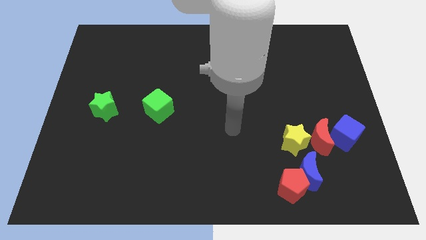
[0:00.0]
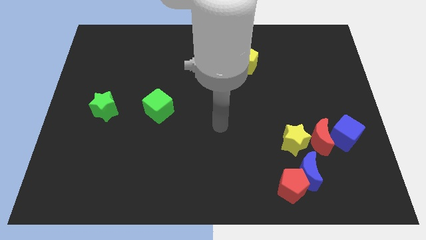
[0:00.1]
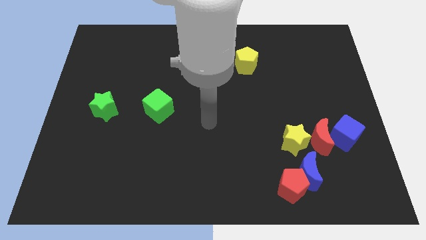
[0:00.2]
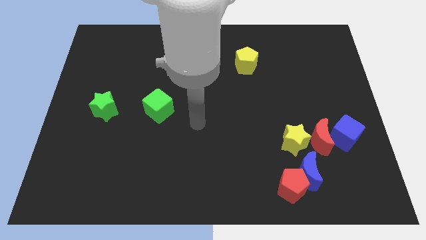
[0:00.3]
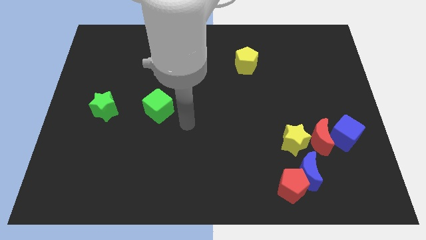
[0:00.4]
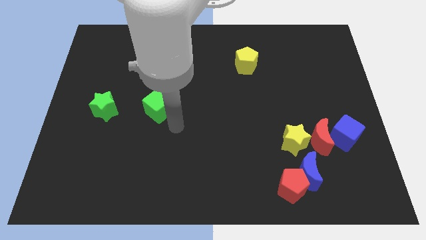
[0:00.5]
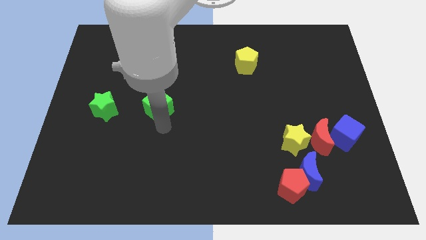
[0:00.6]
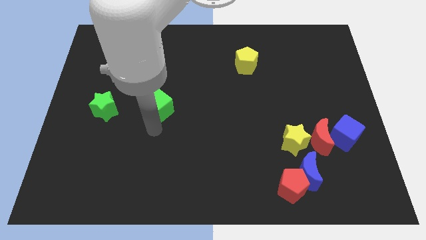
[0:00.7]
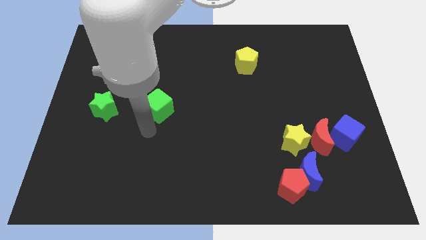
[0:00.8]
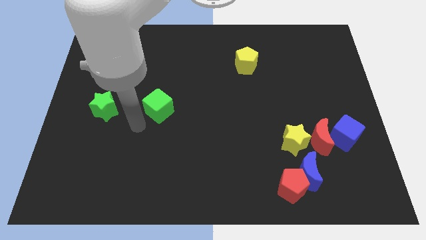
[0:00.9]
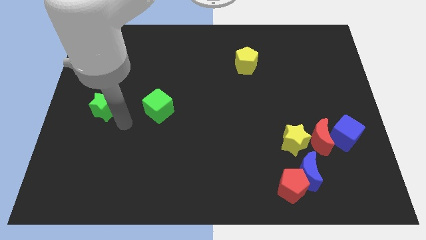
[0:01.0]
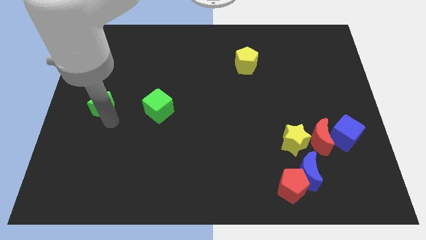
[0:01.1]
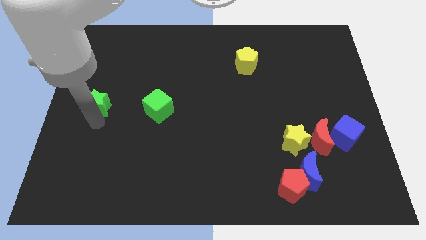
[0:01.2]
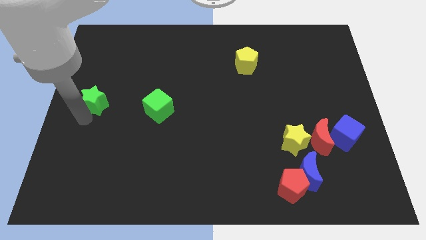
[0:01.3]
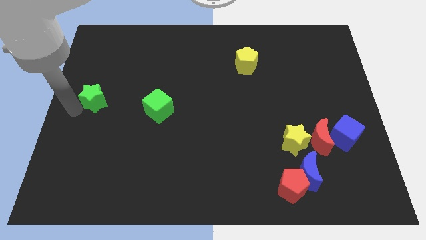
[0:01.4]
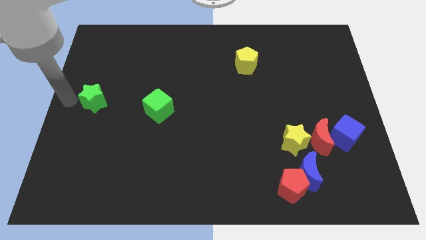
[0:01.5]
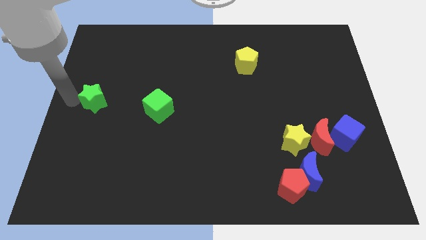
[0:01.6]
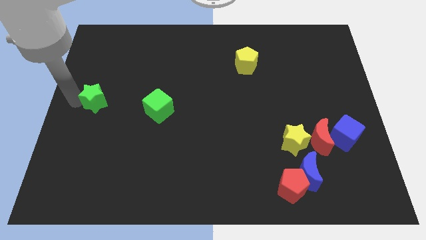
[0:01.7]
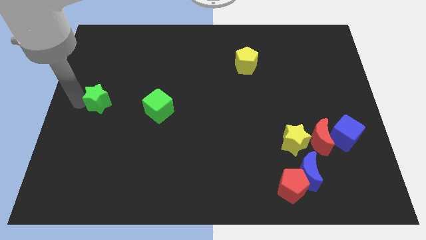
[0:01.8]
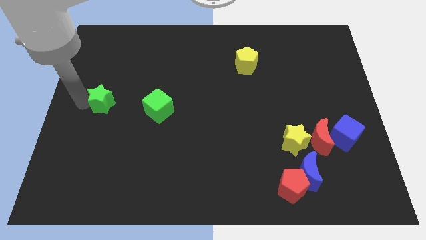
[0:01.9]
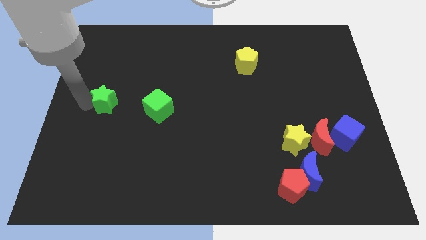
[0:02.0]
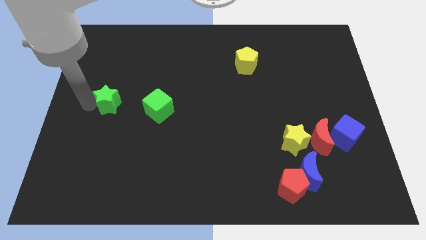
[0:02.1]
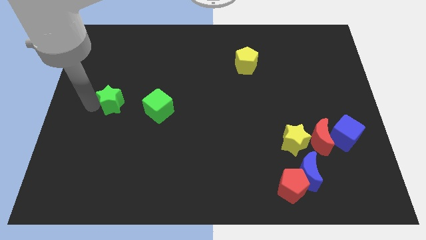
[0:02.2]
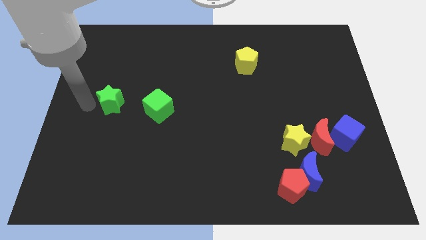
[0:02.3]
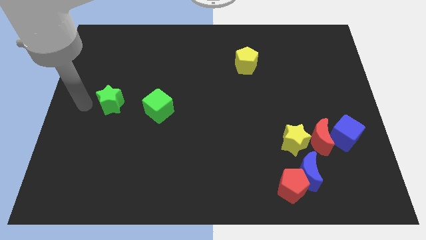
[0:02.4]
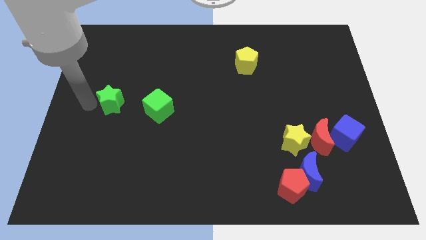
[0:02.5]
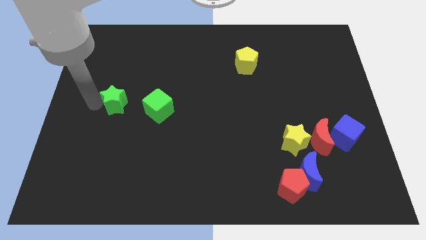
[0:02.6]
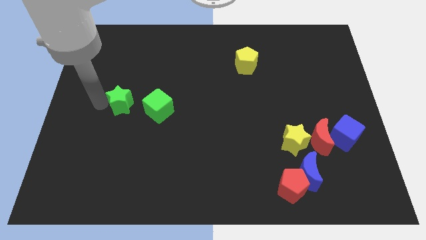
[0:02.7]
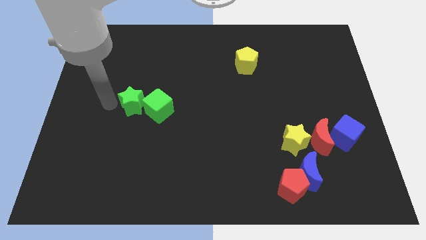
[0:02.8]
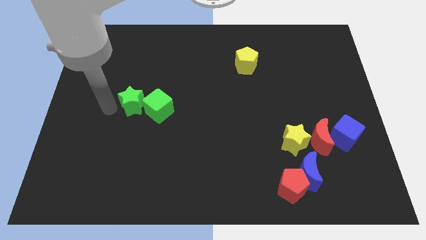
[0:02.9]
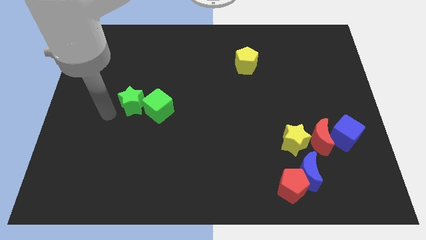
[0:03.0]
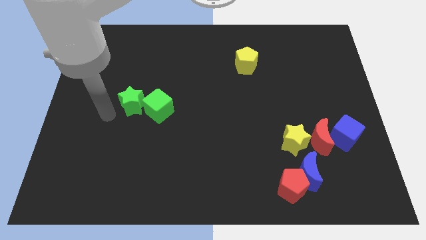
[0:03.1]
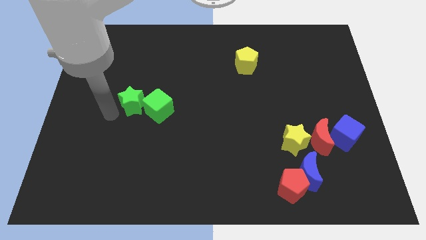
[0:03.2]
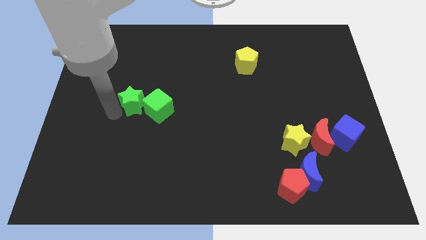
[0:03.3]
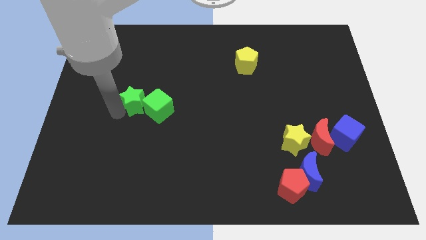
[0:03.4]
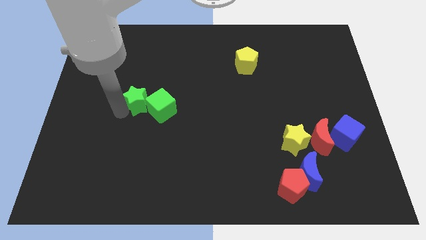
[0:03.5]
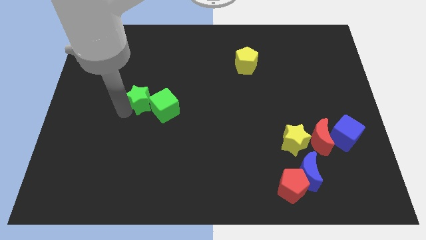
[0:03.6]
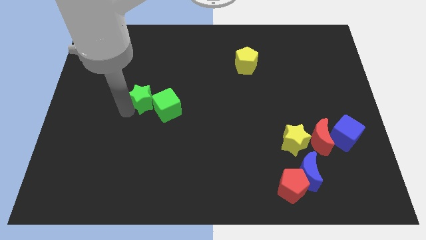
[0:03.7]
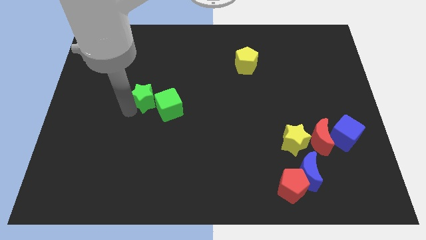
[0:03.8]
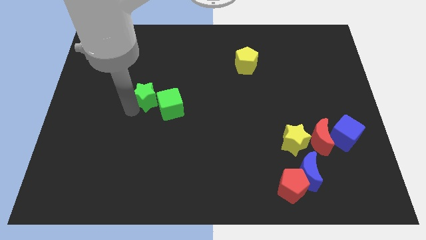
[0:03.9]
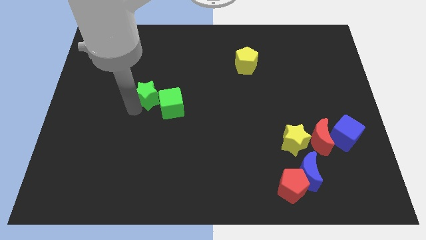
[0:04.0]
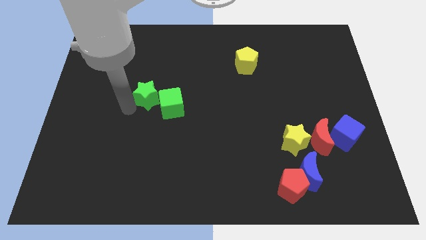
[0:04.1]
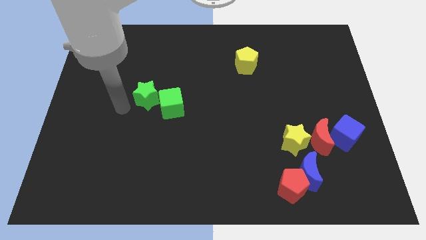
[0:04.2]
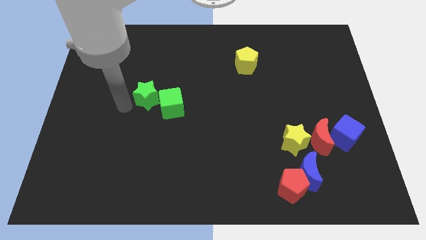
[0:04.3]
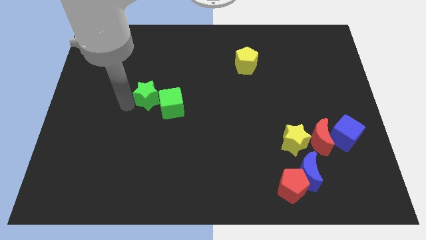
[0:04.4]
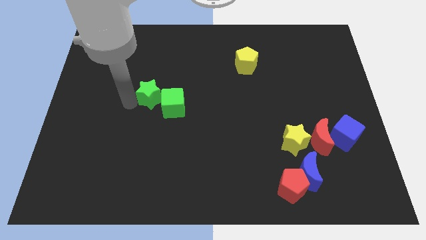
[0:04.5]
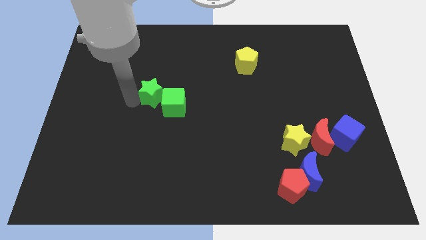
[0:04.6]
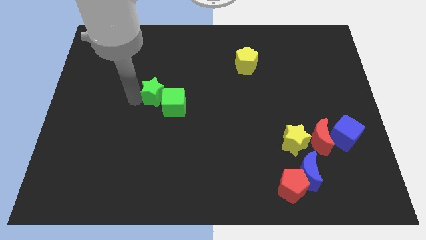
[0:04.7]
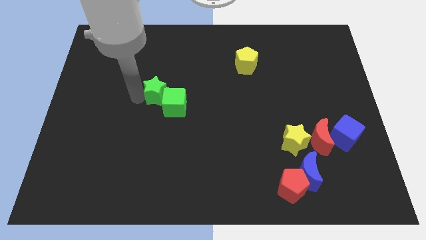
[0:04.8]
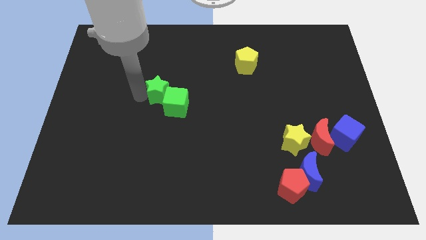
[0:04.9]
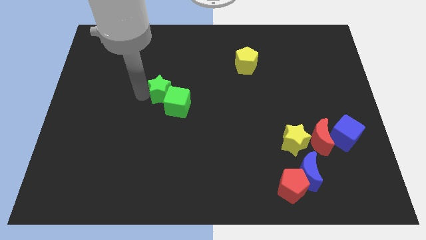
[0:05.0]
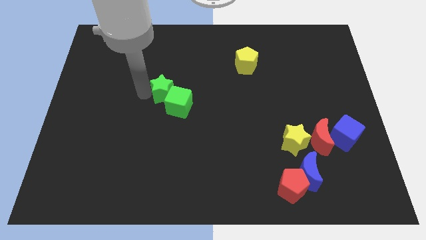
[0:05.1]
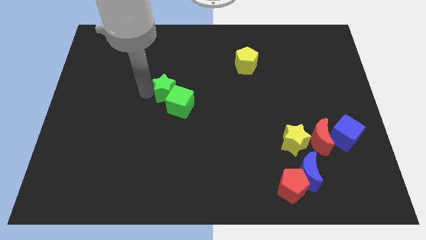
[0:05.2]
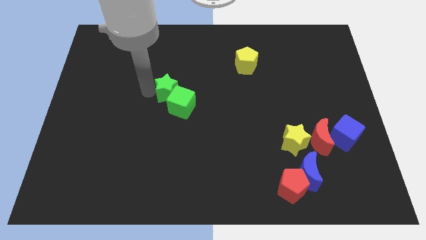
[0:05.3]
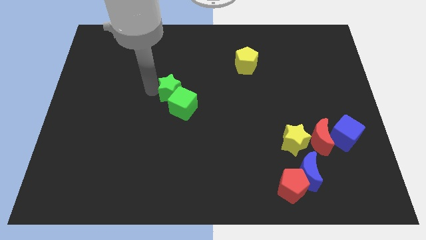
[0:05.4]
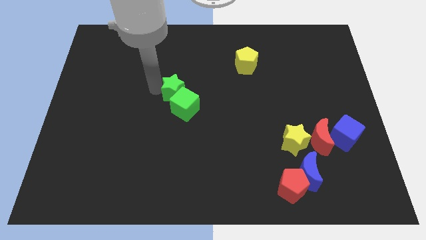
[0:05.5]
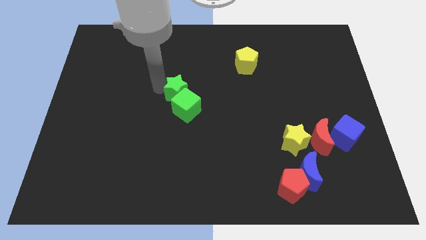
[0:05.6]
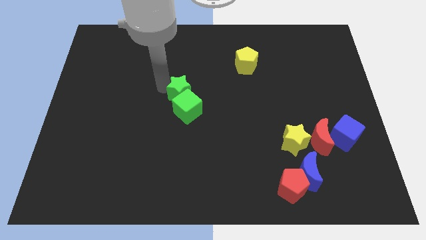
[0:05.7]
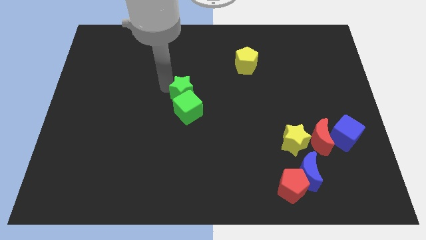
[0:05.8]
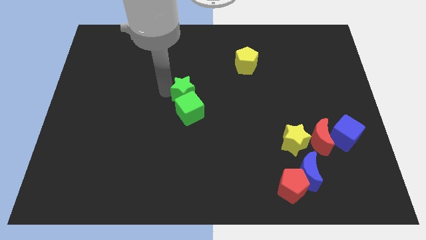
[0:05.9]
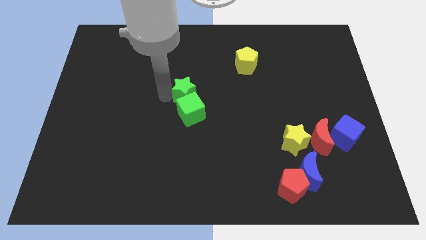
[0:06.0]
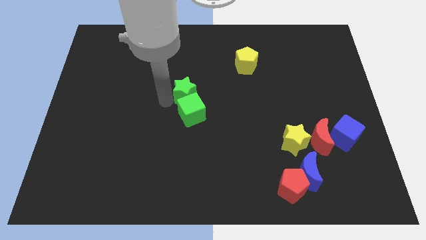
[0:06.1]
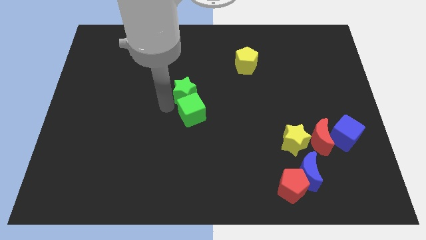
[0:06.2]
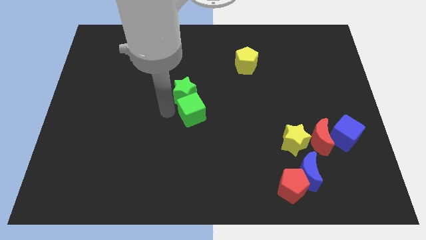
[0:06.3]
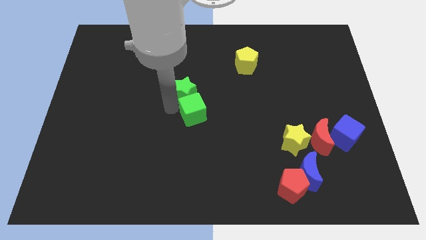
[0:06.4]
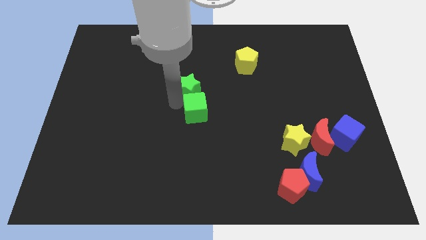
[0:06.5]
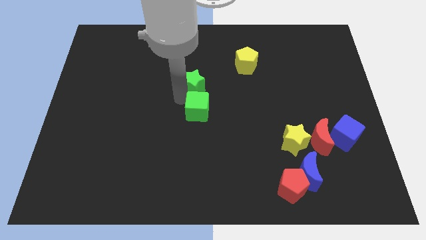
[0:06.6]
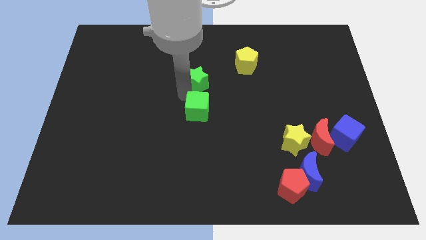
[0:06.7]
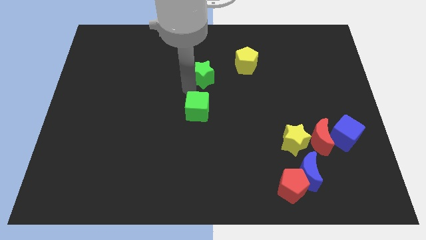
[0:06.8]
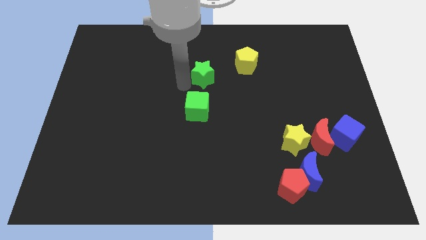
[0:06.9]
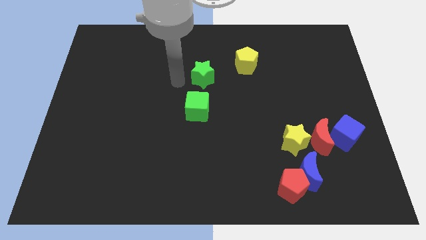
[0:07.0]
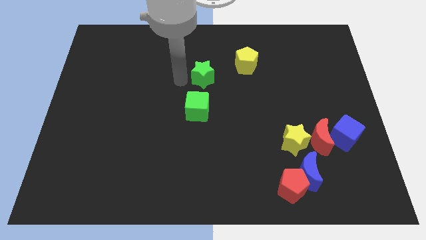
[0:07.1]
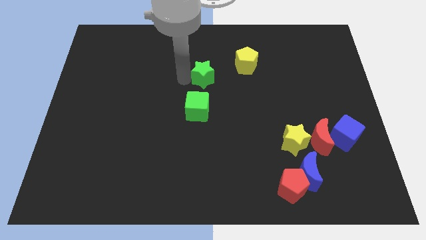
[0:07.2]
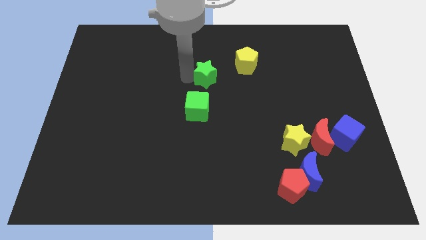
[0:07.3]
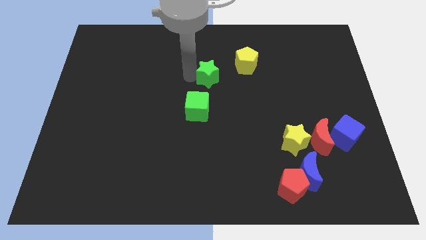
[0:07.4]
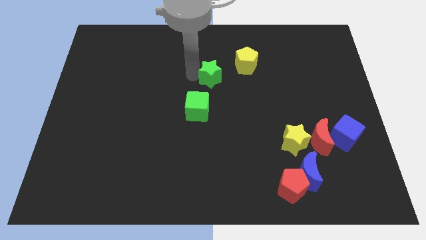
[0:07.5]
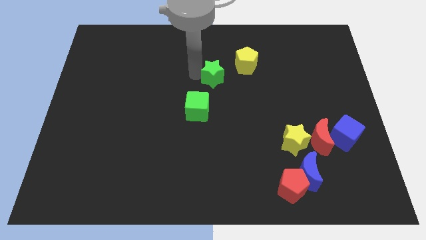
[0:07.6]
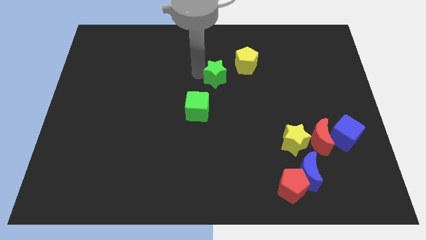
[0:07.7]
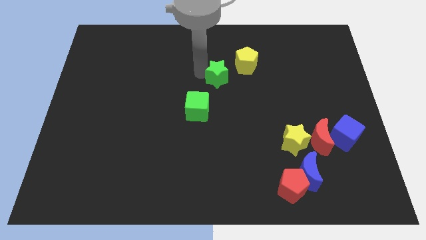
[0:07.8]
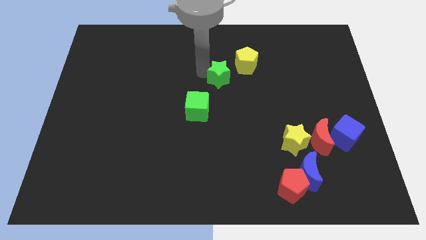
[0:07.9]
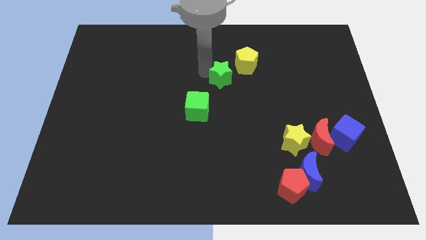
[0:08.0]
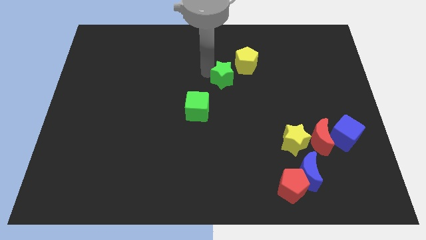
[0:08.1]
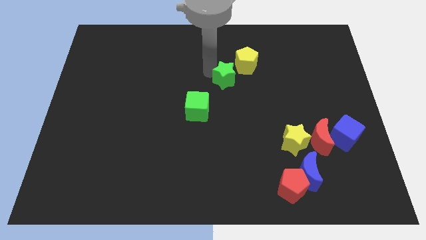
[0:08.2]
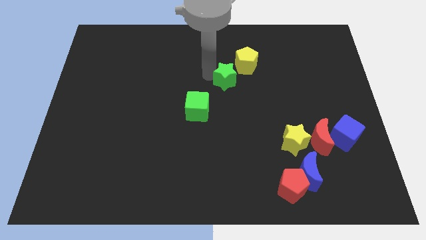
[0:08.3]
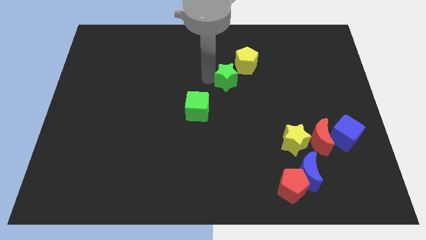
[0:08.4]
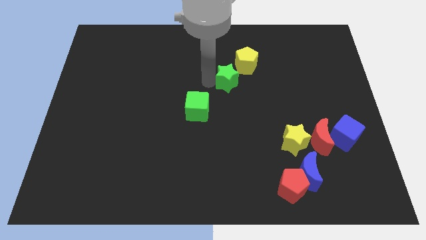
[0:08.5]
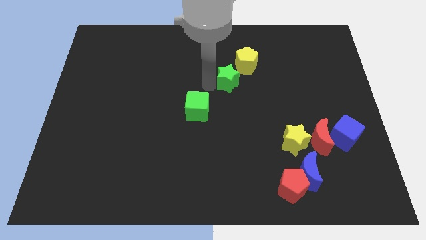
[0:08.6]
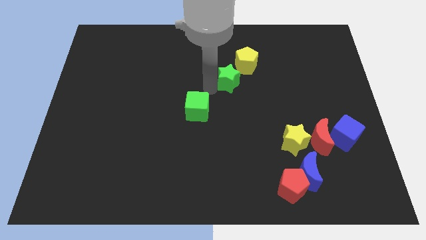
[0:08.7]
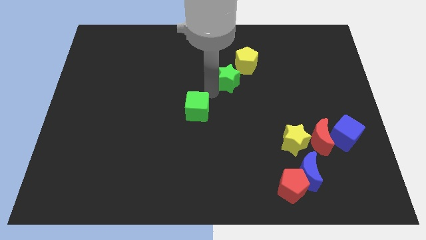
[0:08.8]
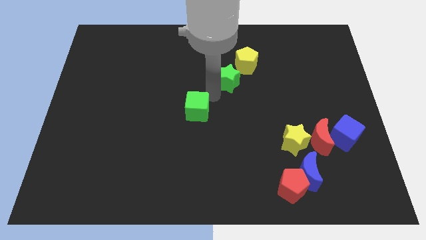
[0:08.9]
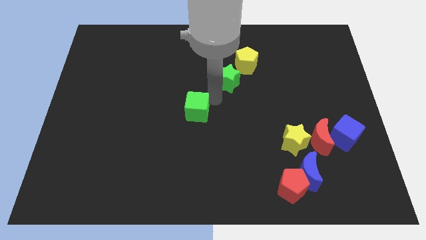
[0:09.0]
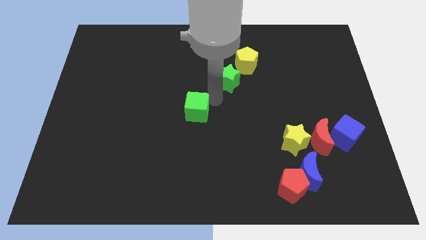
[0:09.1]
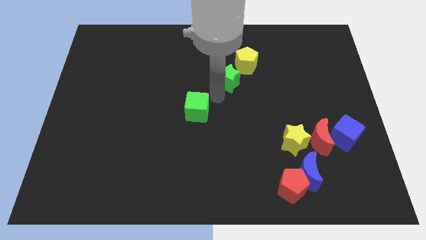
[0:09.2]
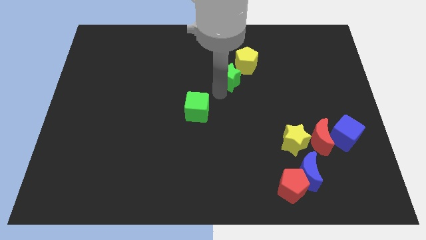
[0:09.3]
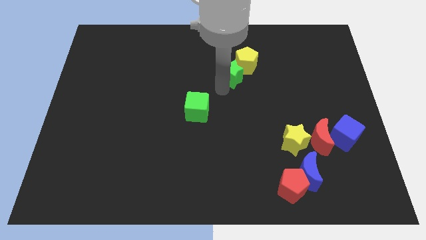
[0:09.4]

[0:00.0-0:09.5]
push the green star next to the yellow pentagon
